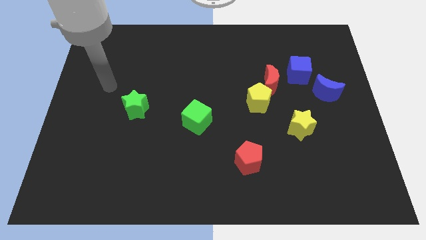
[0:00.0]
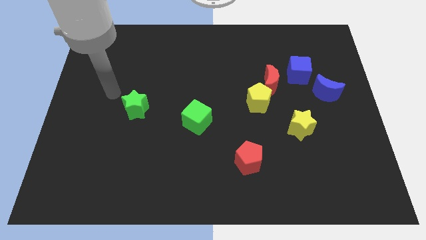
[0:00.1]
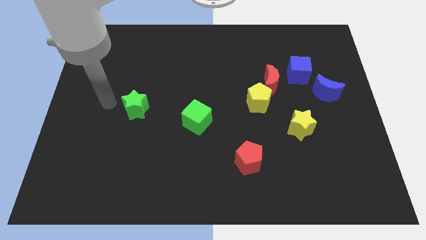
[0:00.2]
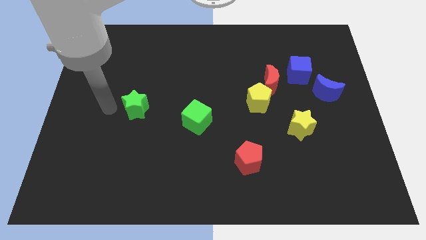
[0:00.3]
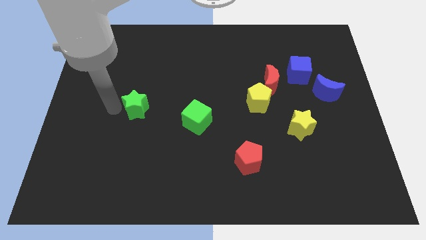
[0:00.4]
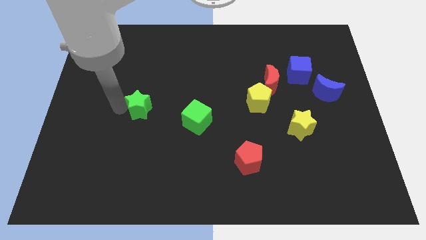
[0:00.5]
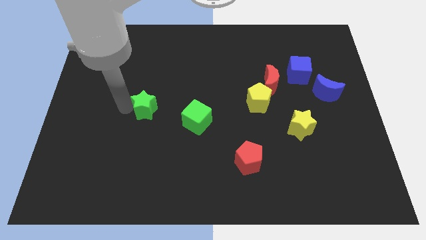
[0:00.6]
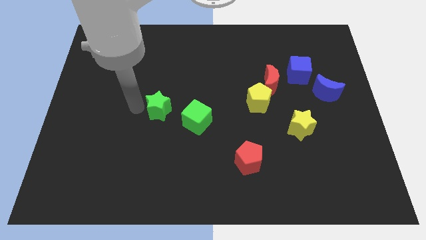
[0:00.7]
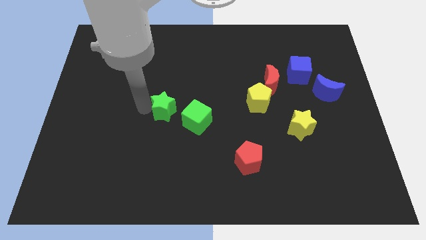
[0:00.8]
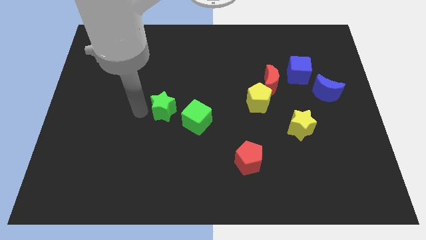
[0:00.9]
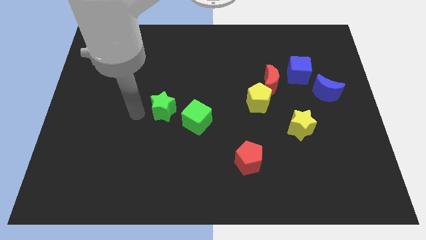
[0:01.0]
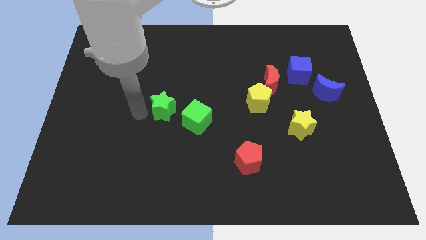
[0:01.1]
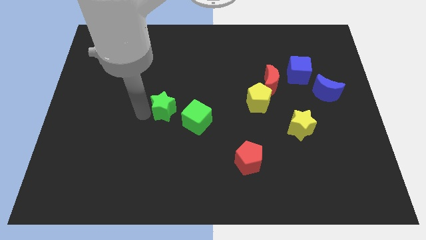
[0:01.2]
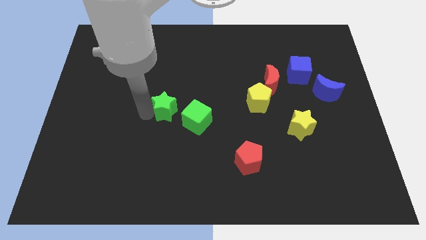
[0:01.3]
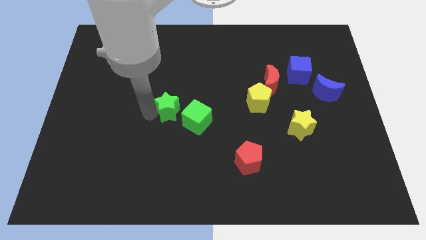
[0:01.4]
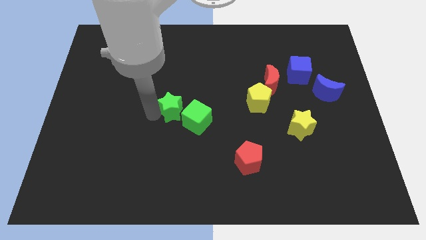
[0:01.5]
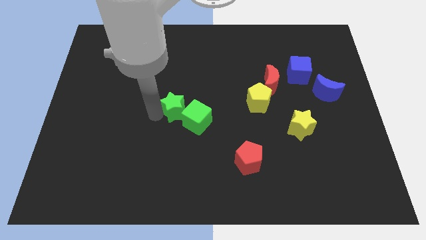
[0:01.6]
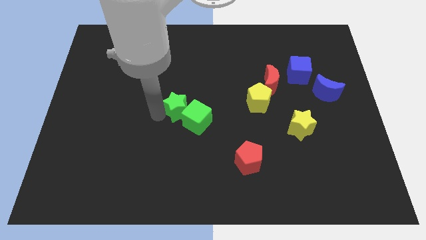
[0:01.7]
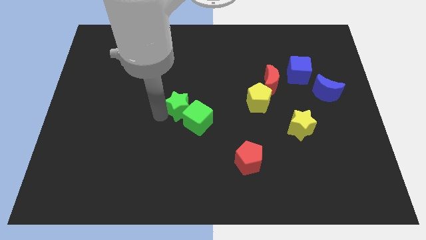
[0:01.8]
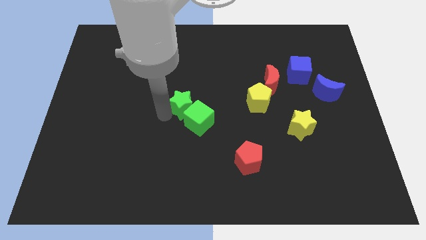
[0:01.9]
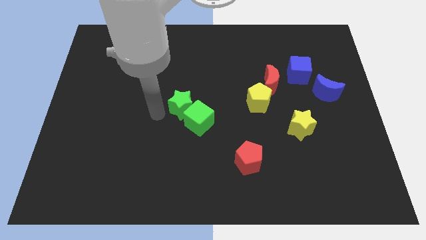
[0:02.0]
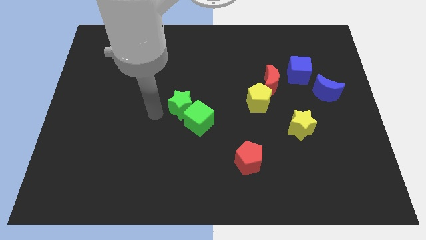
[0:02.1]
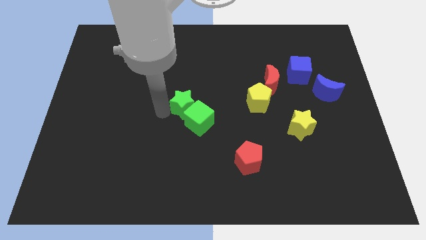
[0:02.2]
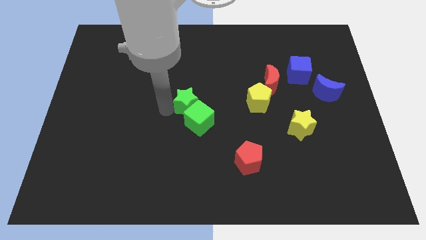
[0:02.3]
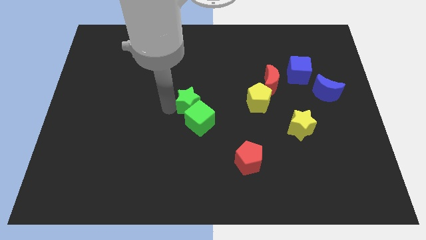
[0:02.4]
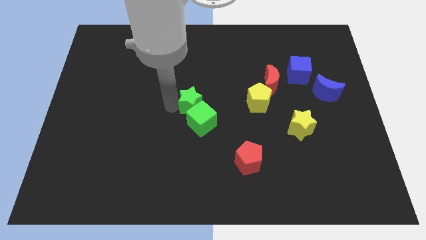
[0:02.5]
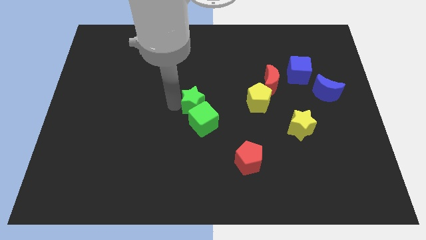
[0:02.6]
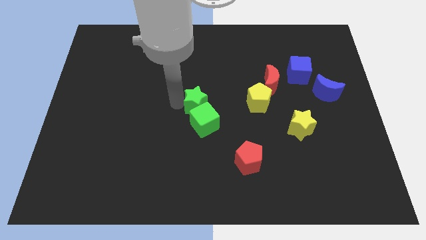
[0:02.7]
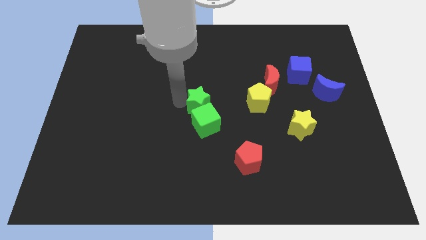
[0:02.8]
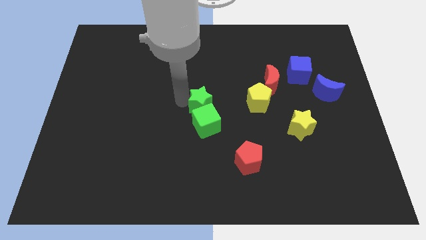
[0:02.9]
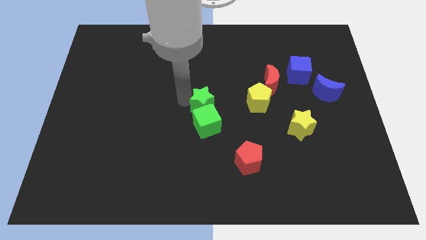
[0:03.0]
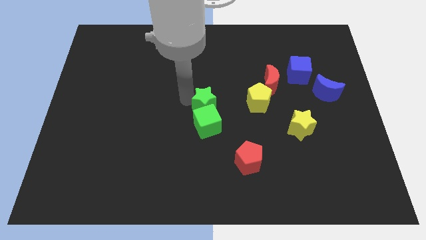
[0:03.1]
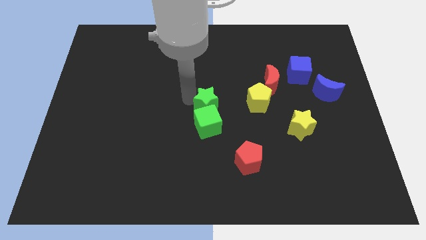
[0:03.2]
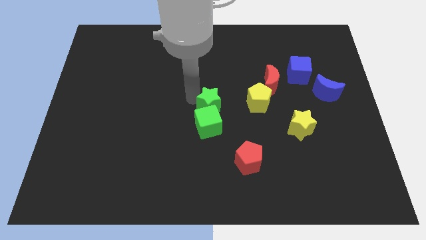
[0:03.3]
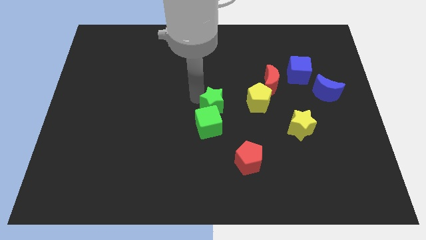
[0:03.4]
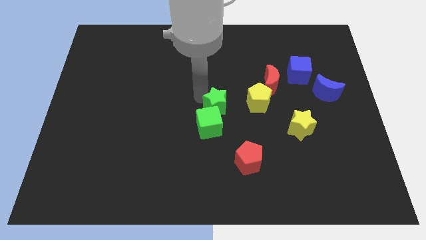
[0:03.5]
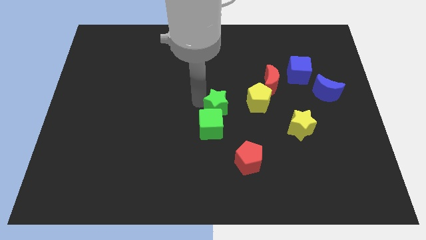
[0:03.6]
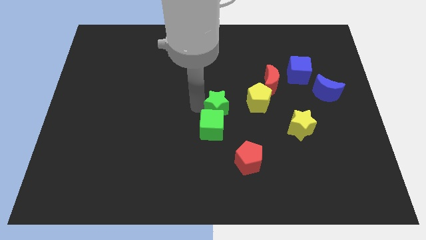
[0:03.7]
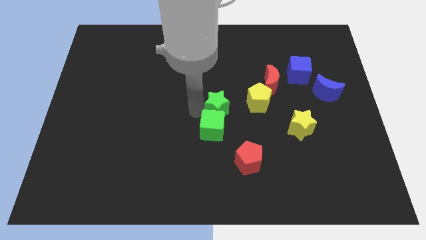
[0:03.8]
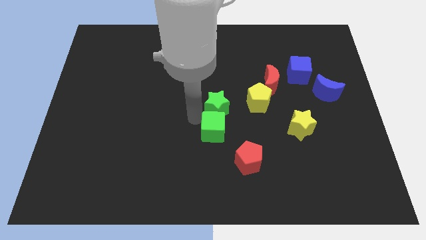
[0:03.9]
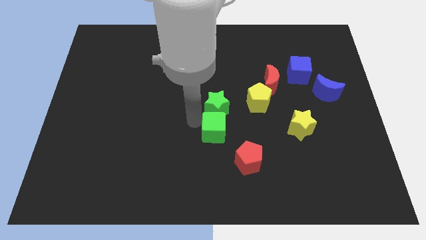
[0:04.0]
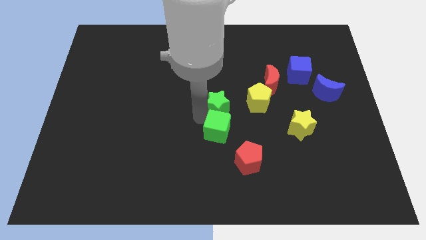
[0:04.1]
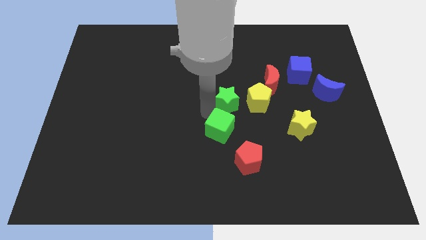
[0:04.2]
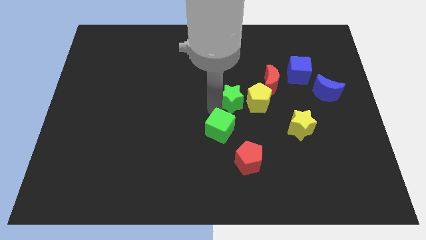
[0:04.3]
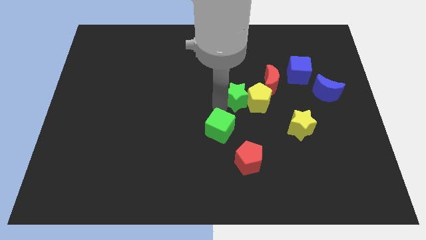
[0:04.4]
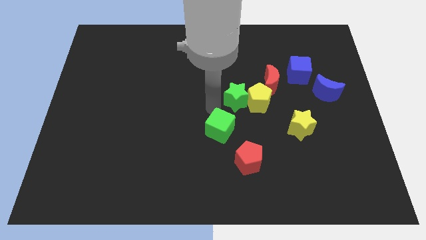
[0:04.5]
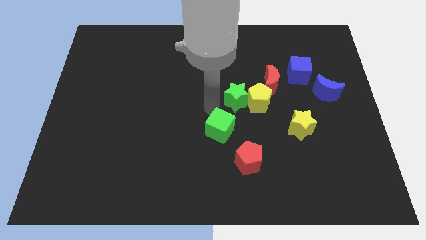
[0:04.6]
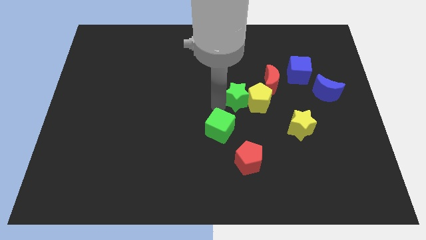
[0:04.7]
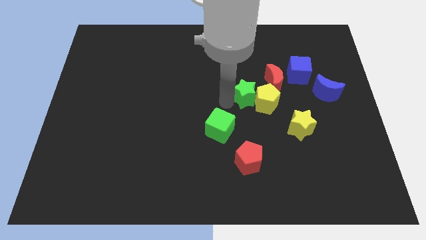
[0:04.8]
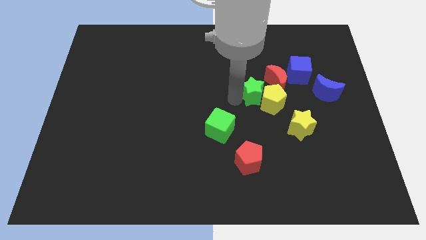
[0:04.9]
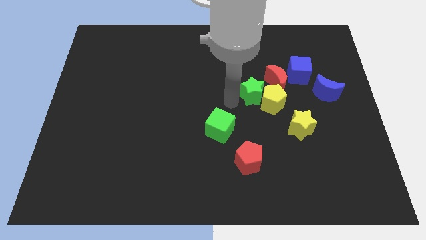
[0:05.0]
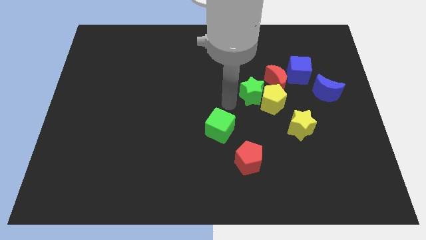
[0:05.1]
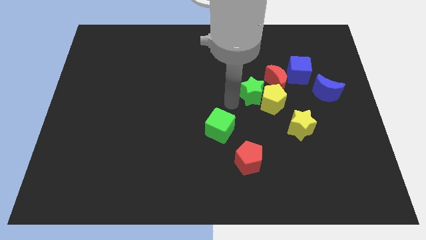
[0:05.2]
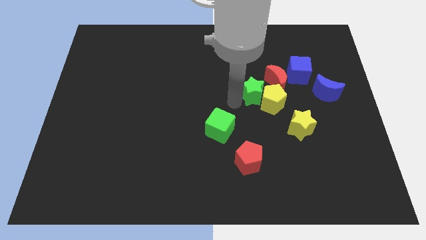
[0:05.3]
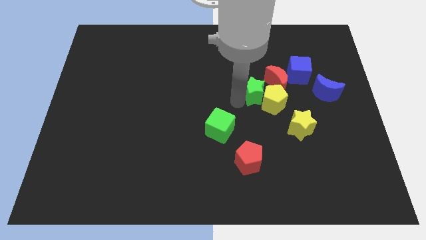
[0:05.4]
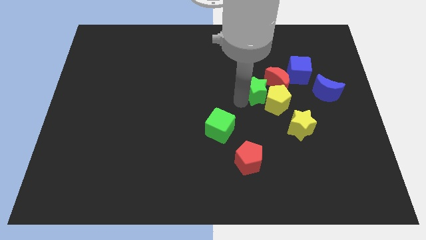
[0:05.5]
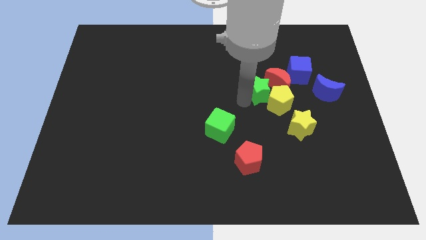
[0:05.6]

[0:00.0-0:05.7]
put the green star towards the red moon

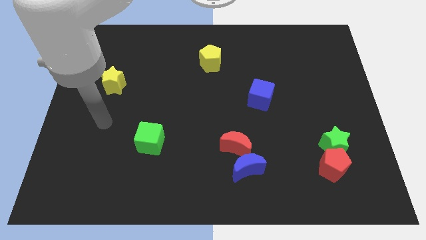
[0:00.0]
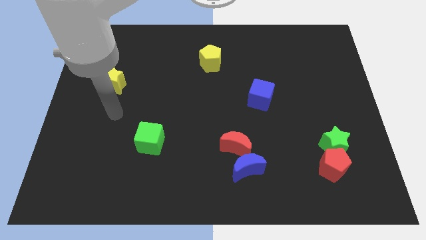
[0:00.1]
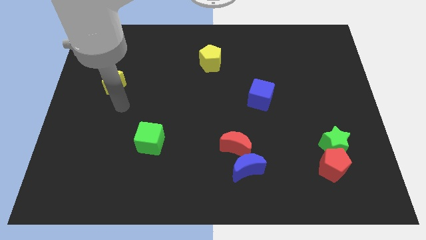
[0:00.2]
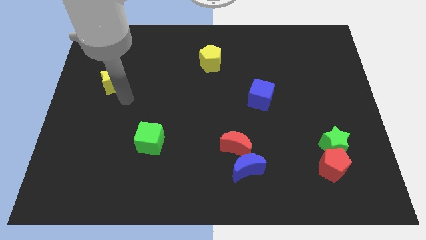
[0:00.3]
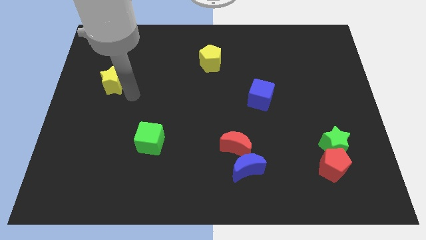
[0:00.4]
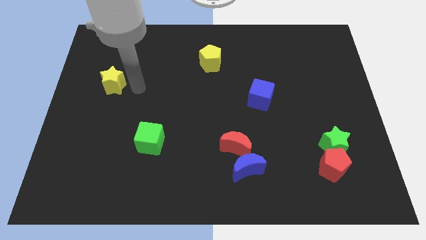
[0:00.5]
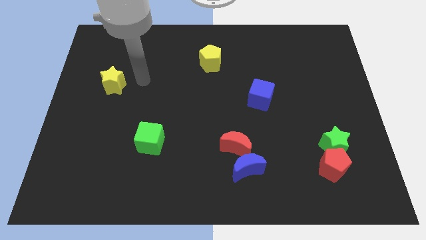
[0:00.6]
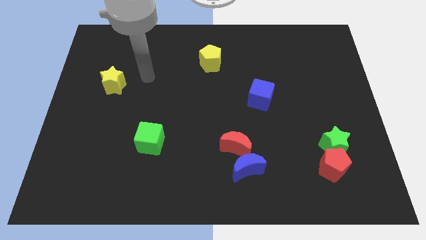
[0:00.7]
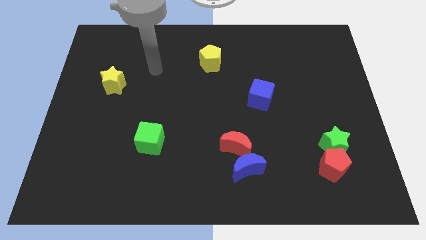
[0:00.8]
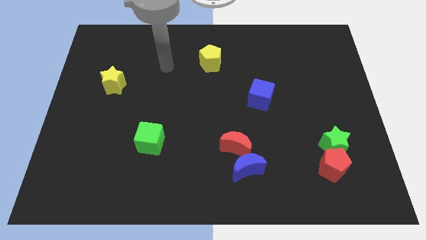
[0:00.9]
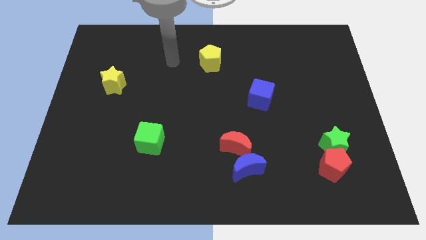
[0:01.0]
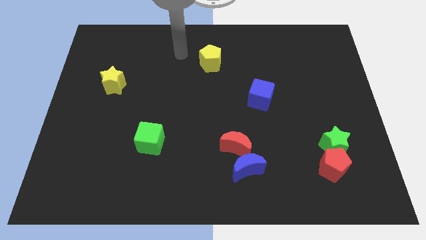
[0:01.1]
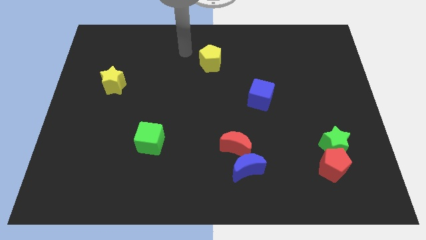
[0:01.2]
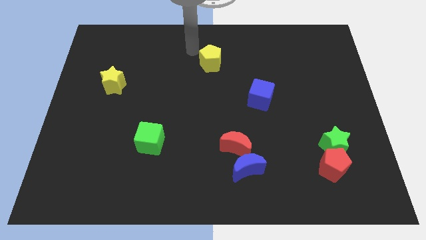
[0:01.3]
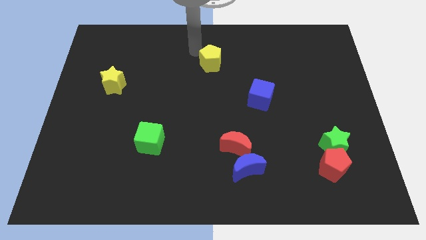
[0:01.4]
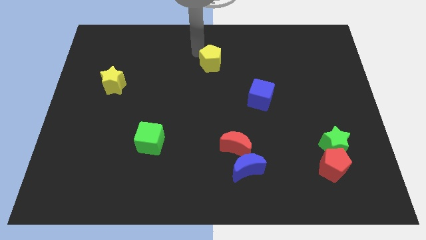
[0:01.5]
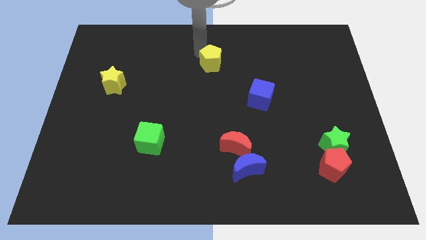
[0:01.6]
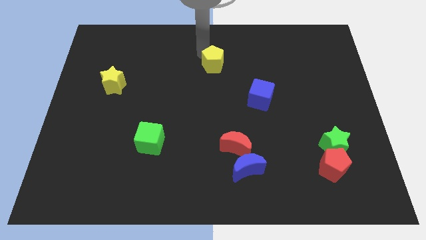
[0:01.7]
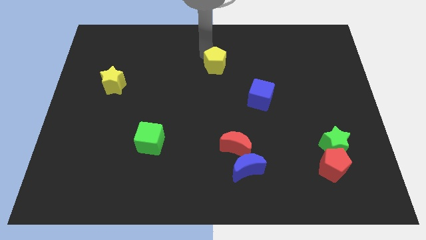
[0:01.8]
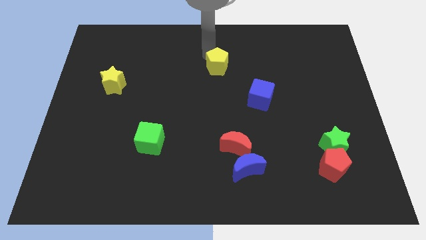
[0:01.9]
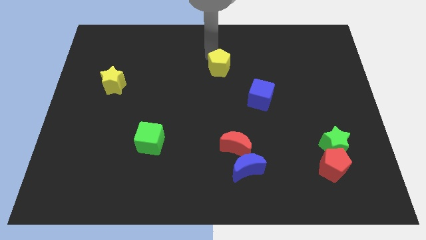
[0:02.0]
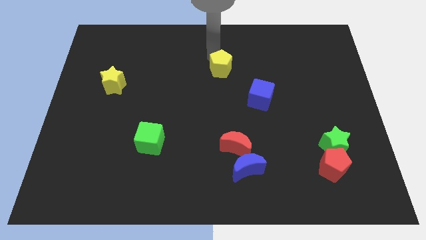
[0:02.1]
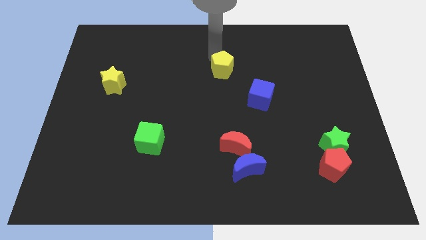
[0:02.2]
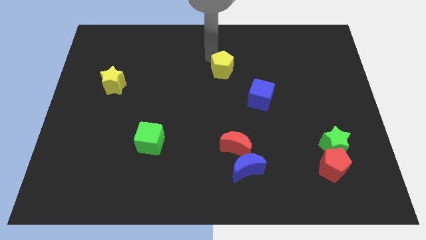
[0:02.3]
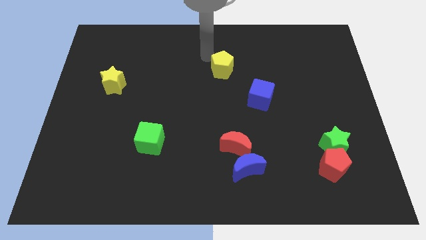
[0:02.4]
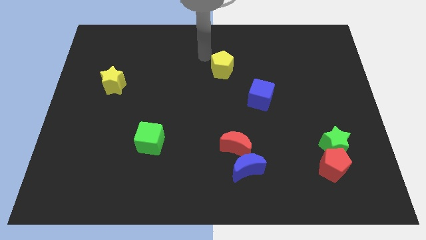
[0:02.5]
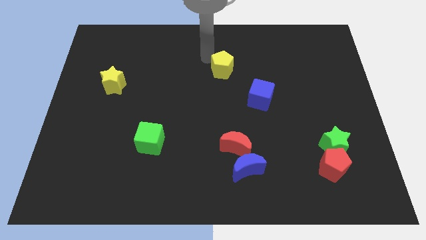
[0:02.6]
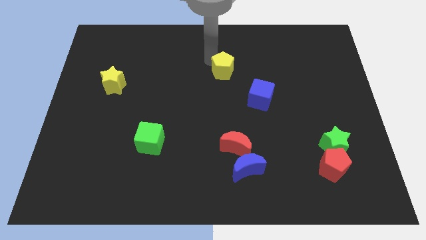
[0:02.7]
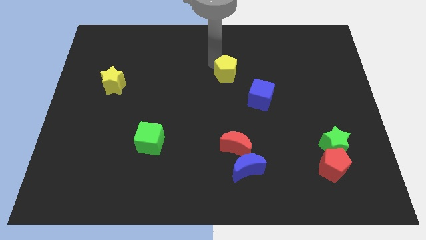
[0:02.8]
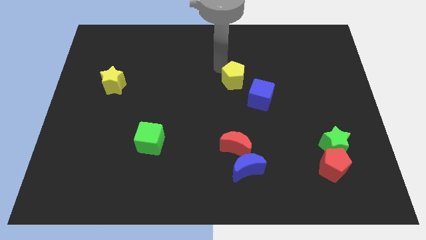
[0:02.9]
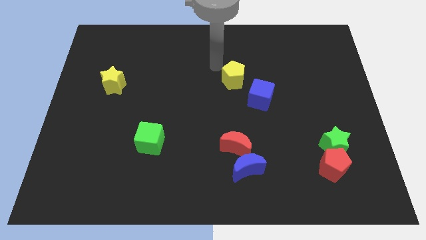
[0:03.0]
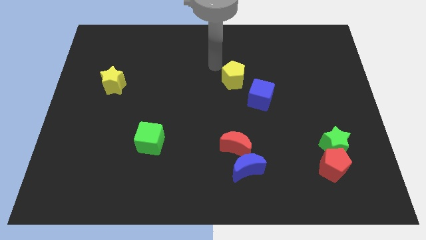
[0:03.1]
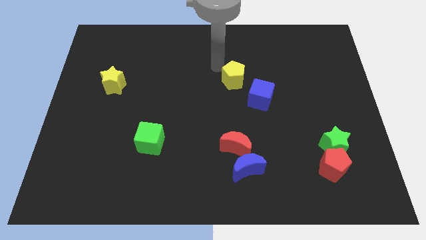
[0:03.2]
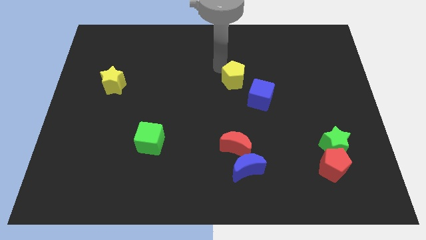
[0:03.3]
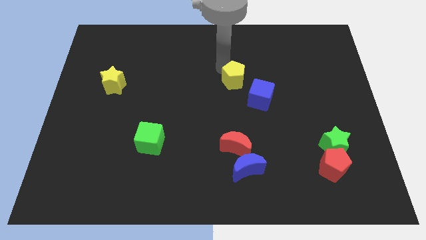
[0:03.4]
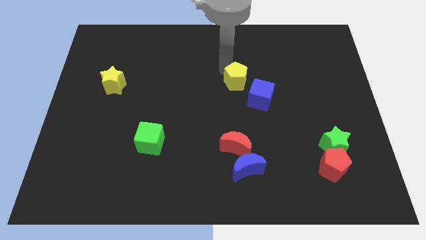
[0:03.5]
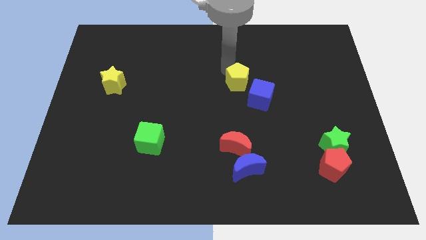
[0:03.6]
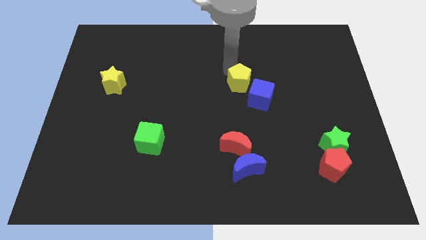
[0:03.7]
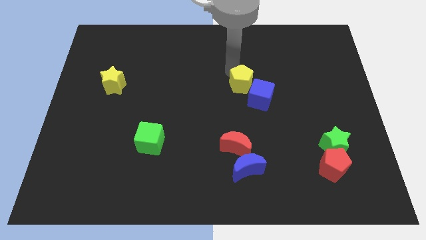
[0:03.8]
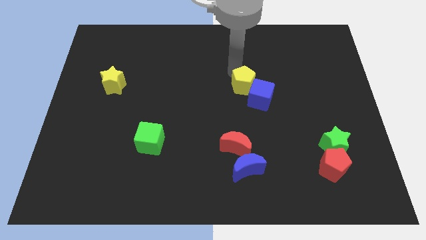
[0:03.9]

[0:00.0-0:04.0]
push the yellow pentagon towards the blue cube
